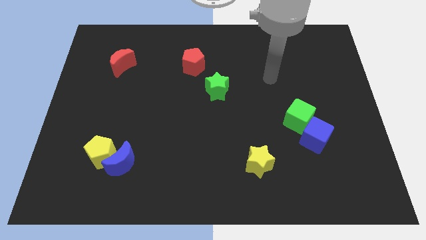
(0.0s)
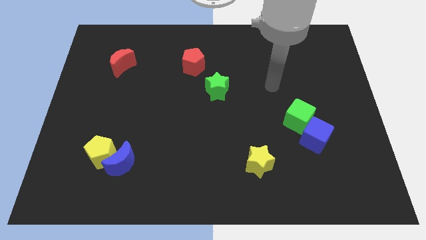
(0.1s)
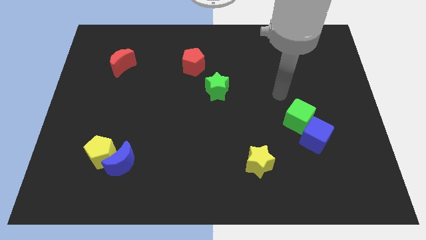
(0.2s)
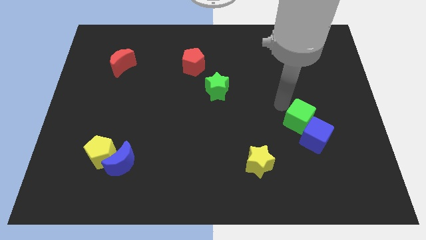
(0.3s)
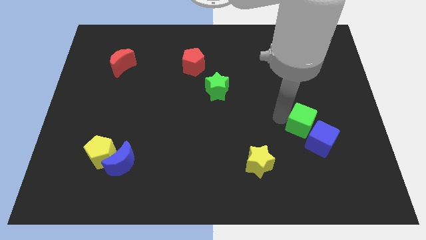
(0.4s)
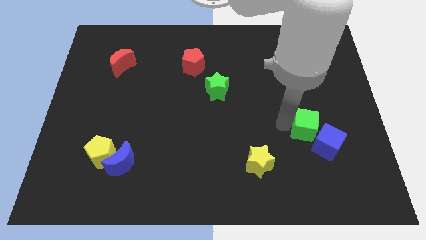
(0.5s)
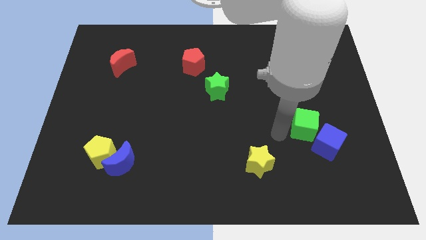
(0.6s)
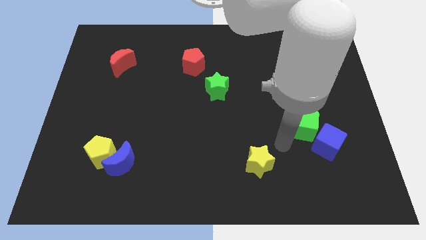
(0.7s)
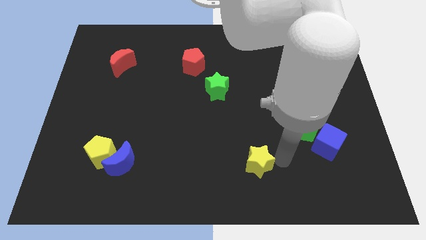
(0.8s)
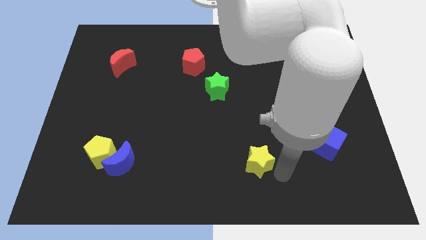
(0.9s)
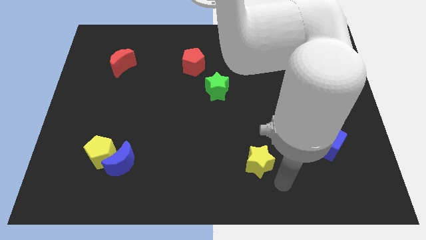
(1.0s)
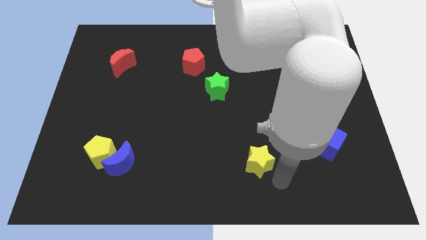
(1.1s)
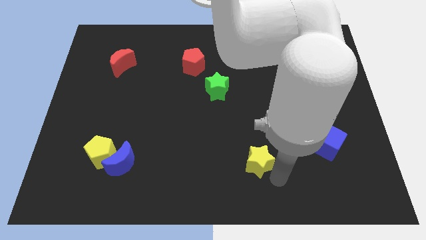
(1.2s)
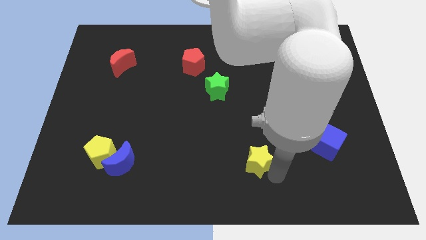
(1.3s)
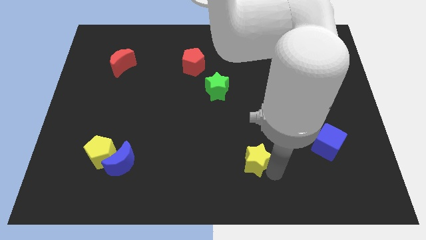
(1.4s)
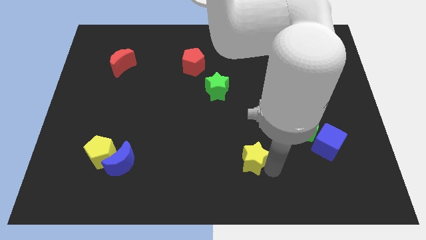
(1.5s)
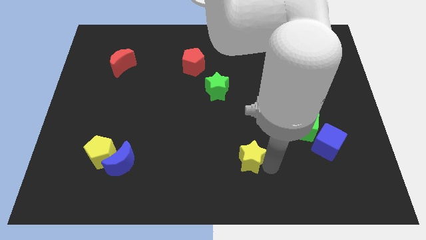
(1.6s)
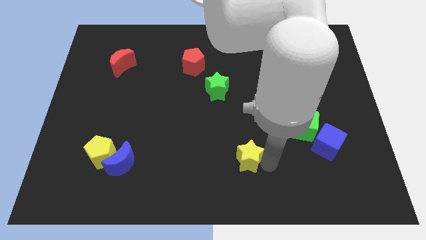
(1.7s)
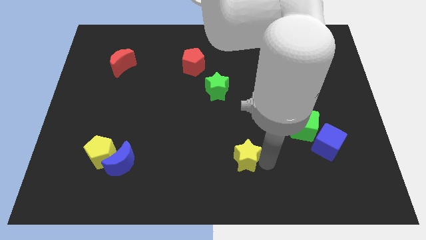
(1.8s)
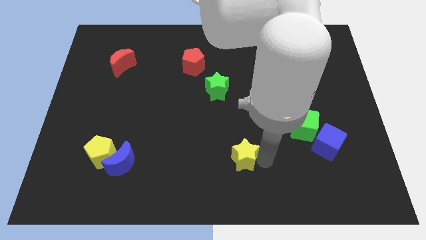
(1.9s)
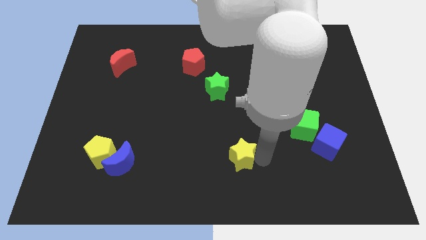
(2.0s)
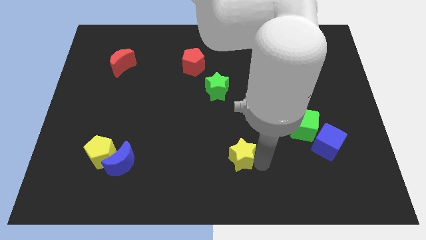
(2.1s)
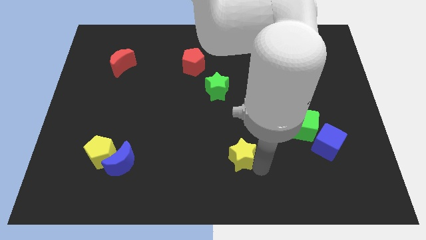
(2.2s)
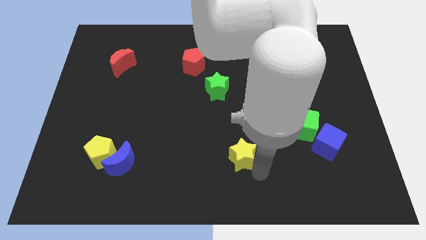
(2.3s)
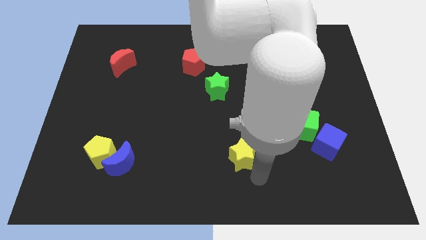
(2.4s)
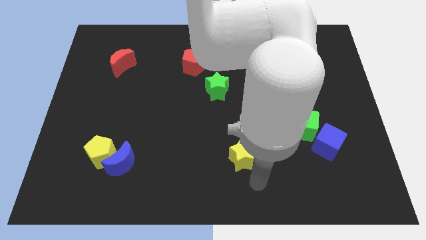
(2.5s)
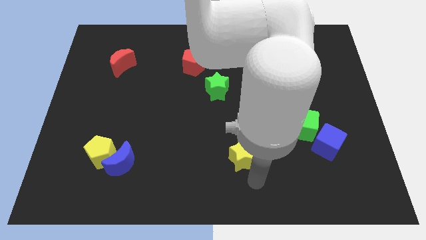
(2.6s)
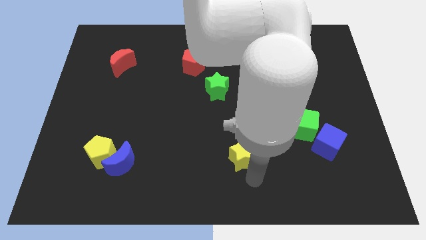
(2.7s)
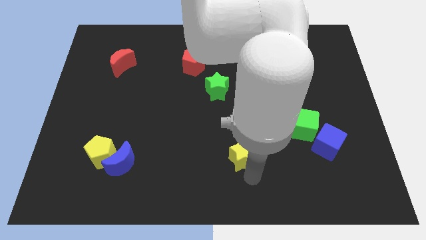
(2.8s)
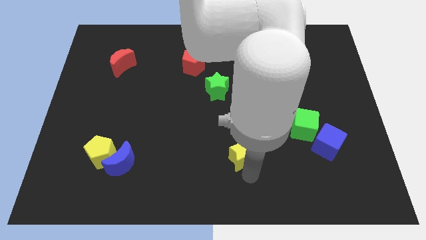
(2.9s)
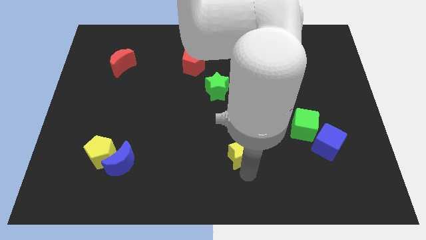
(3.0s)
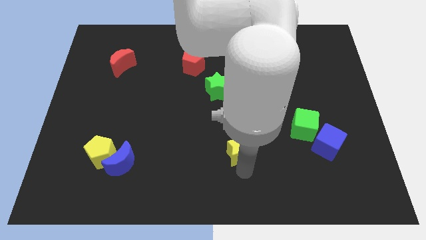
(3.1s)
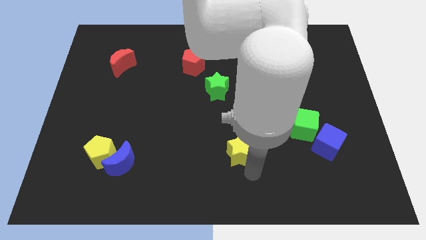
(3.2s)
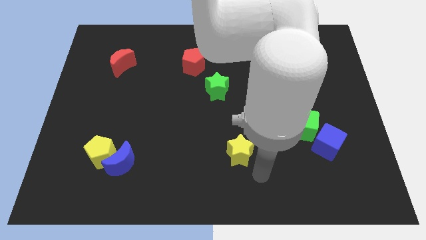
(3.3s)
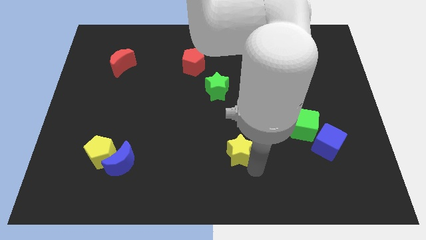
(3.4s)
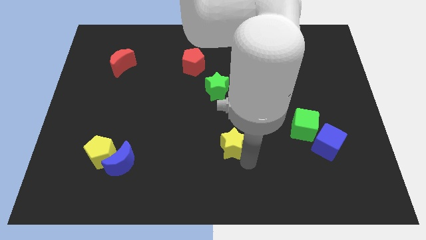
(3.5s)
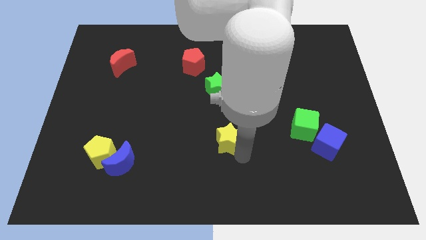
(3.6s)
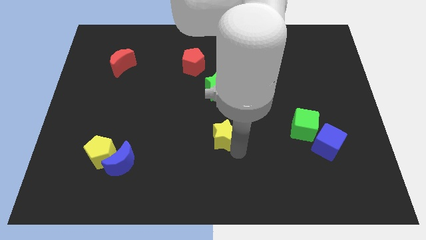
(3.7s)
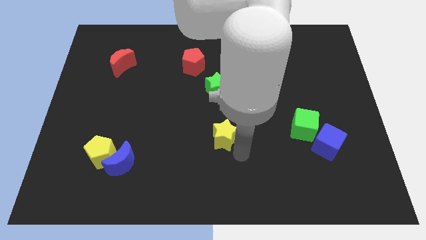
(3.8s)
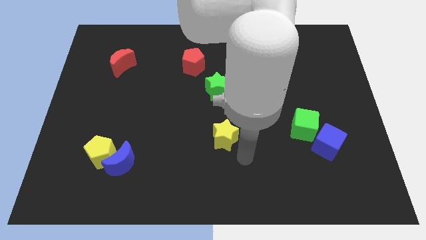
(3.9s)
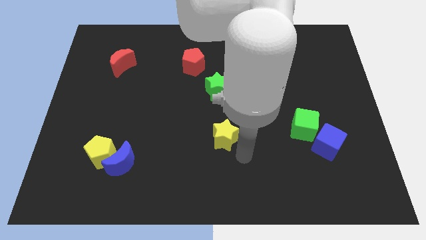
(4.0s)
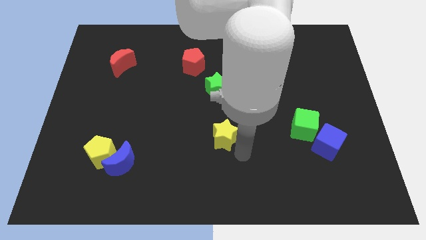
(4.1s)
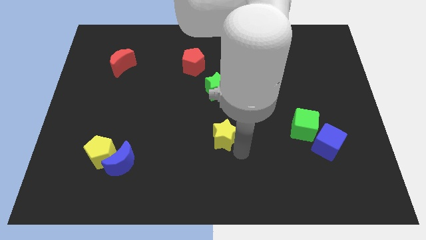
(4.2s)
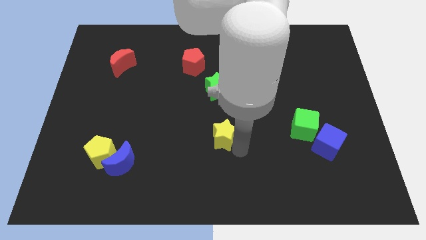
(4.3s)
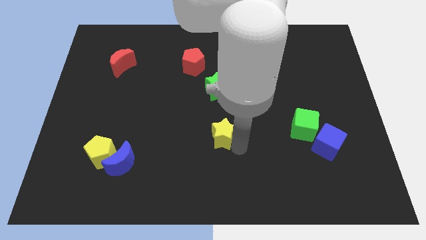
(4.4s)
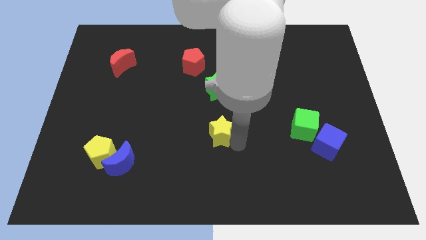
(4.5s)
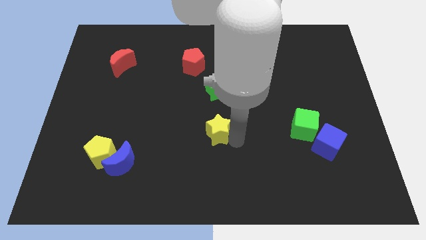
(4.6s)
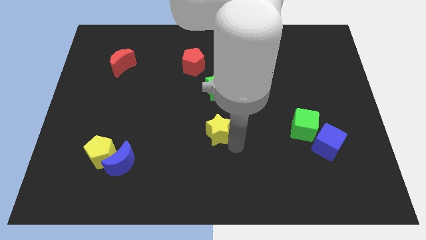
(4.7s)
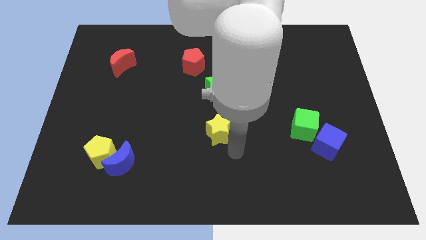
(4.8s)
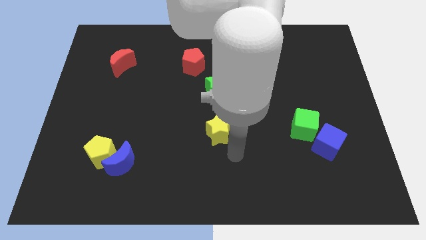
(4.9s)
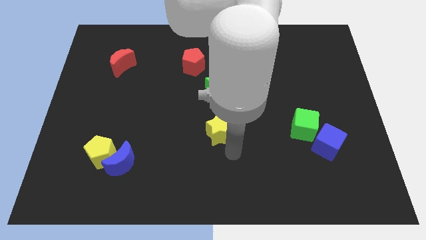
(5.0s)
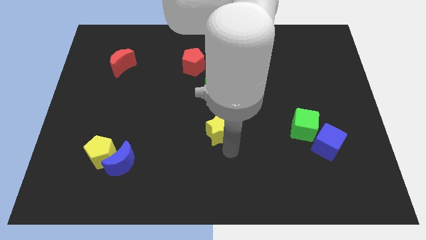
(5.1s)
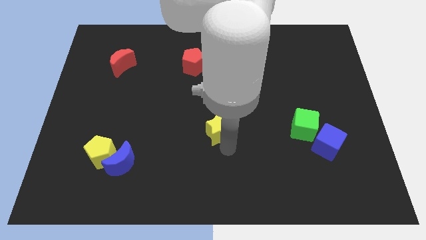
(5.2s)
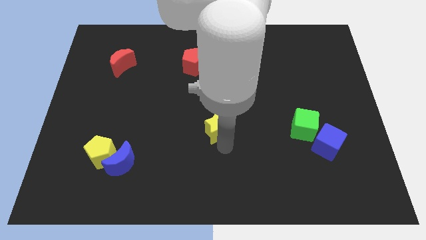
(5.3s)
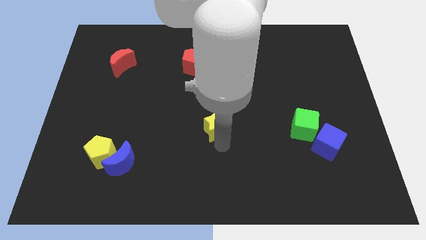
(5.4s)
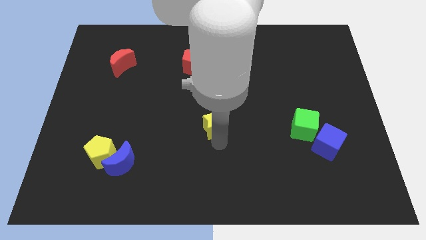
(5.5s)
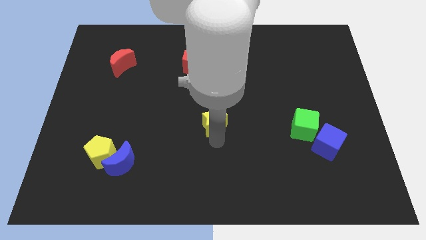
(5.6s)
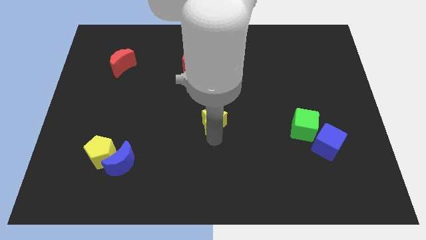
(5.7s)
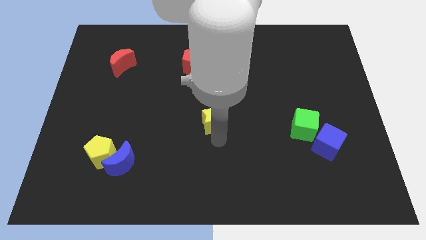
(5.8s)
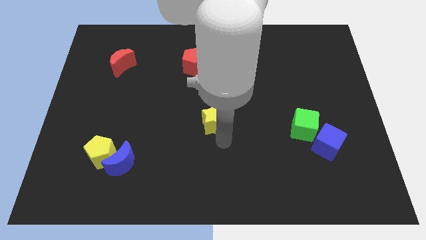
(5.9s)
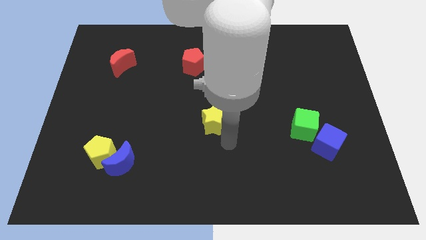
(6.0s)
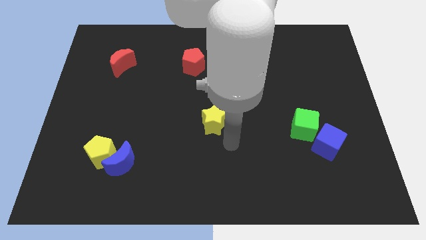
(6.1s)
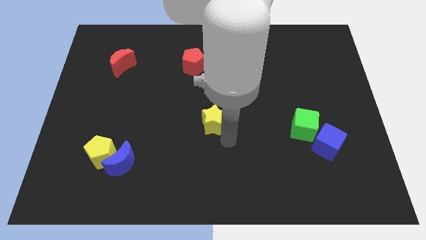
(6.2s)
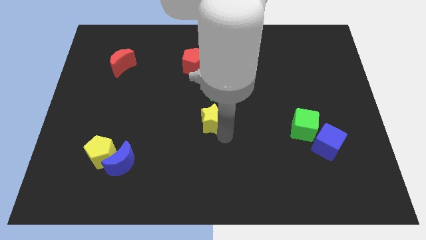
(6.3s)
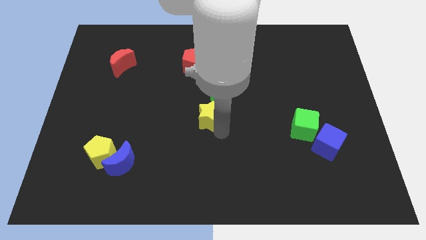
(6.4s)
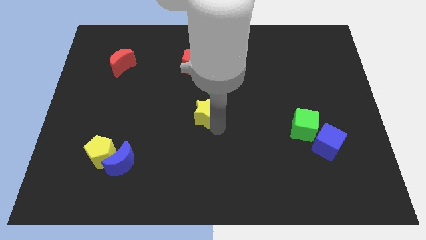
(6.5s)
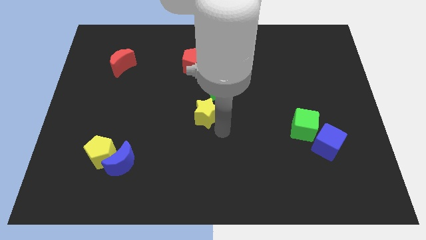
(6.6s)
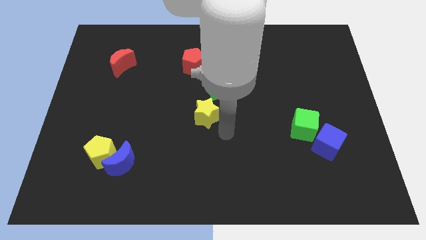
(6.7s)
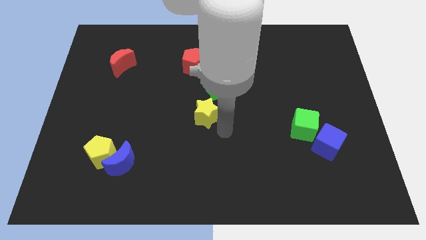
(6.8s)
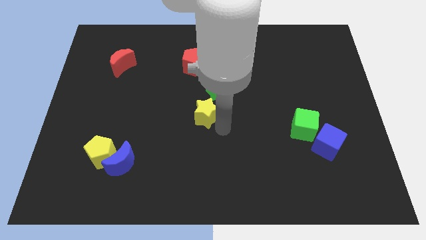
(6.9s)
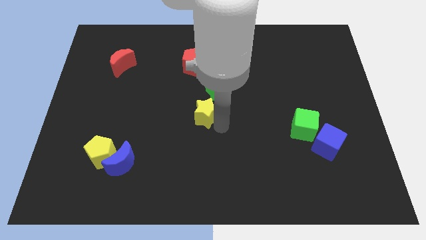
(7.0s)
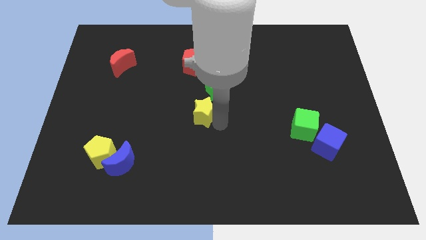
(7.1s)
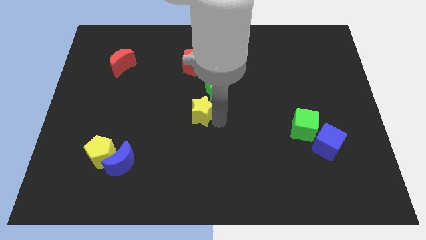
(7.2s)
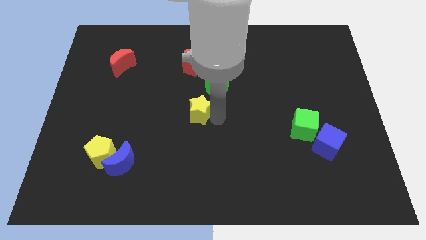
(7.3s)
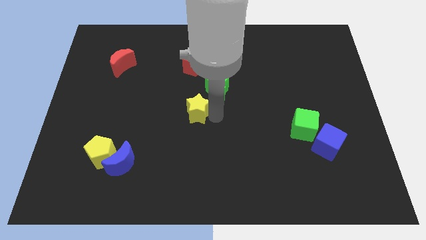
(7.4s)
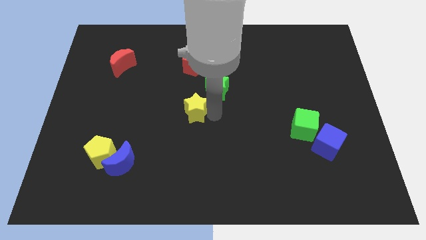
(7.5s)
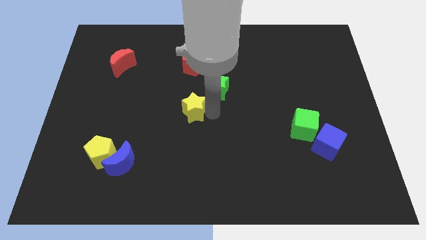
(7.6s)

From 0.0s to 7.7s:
push the yellow star diagonally up and to the left

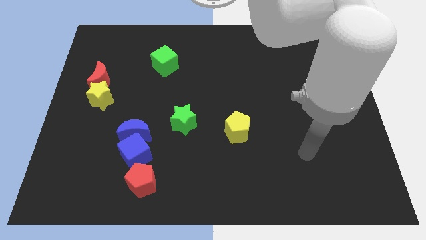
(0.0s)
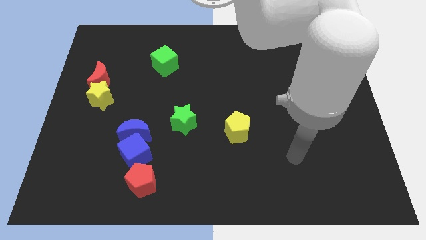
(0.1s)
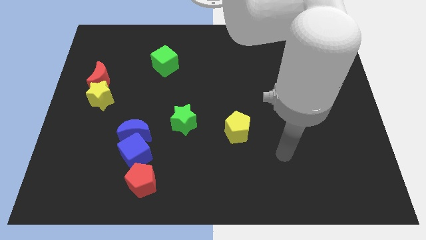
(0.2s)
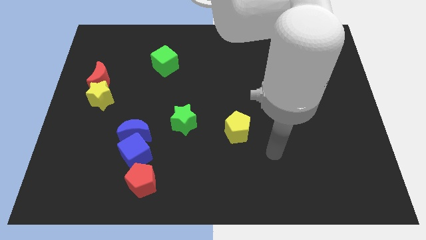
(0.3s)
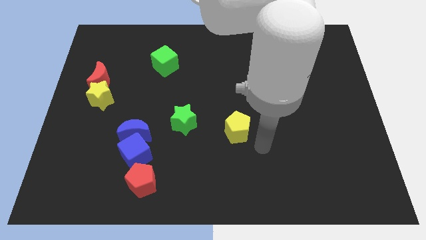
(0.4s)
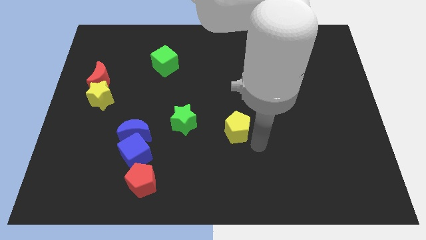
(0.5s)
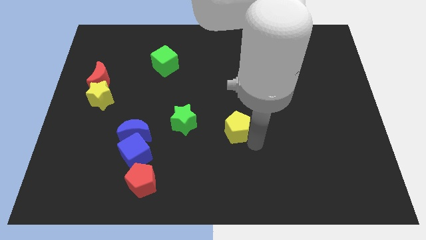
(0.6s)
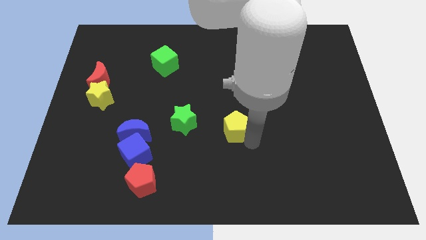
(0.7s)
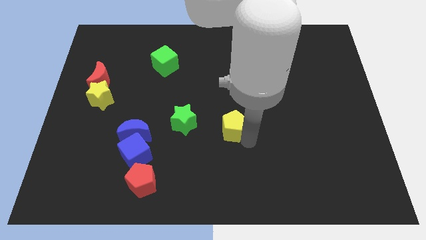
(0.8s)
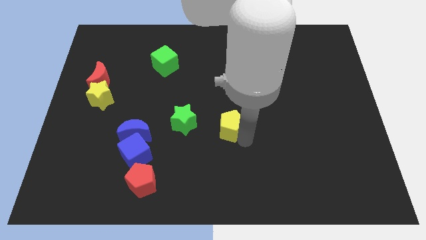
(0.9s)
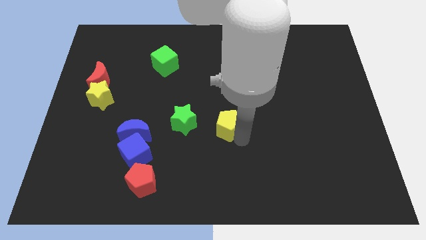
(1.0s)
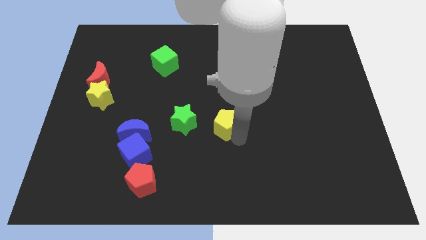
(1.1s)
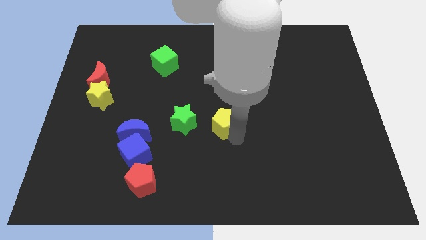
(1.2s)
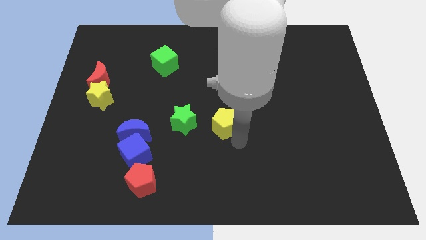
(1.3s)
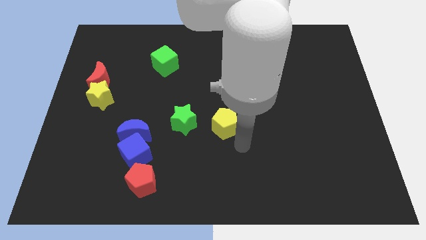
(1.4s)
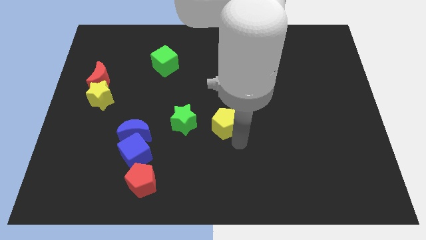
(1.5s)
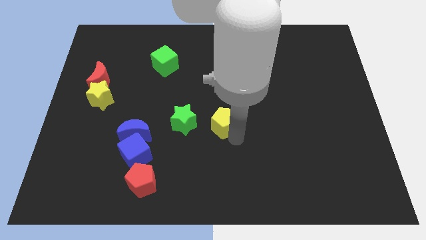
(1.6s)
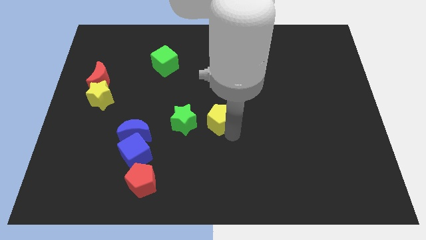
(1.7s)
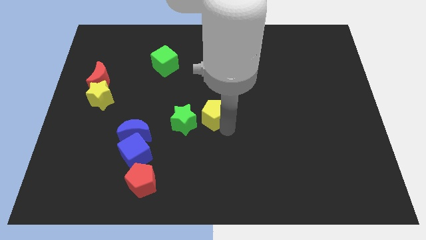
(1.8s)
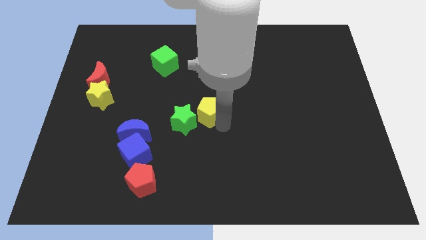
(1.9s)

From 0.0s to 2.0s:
slightly slide the yellow pentagon upwards and to the left
